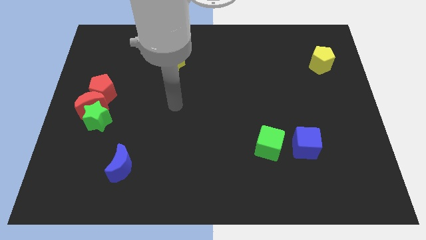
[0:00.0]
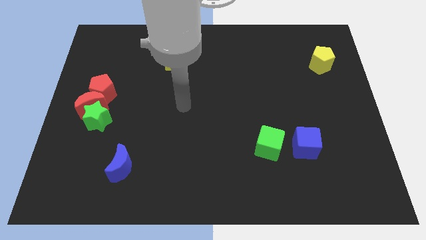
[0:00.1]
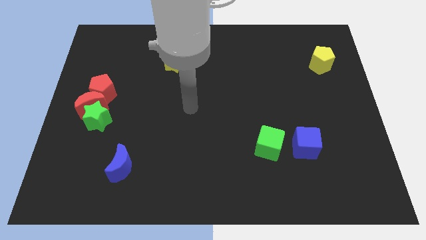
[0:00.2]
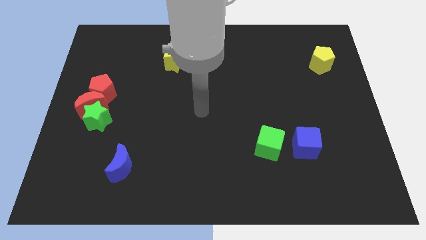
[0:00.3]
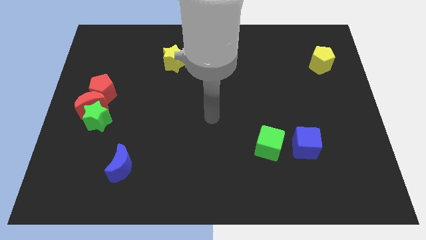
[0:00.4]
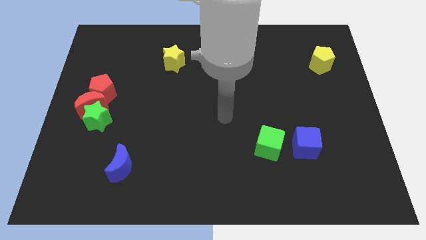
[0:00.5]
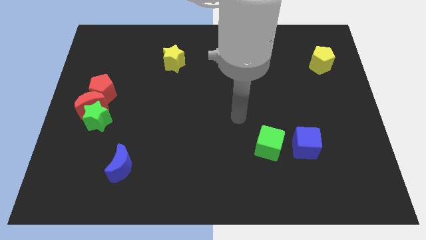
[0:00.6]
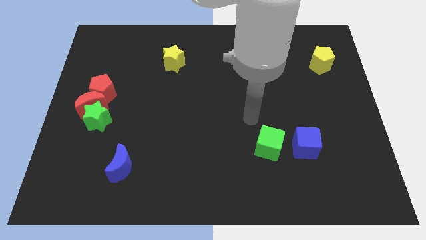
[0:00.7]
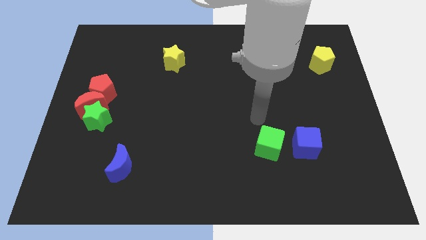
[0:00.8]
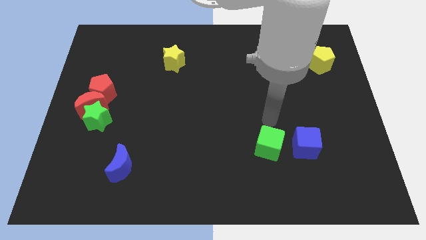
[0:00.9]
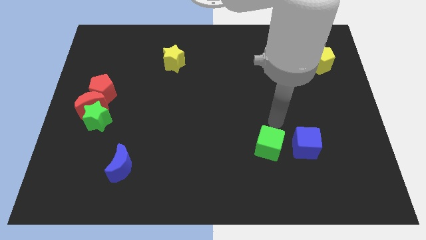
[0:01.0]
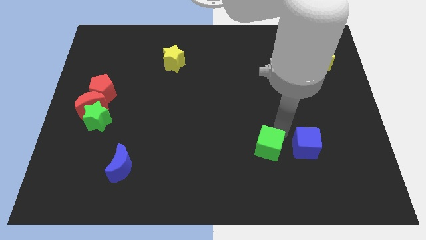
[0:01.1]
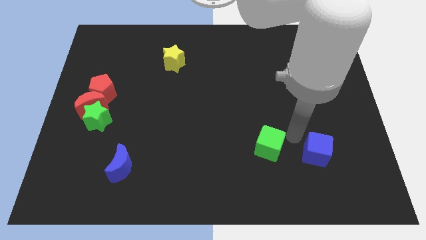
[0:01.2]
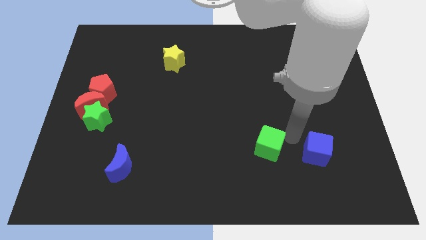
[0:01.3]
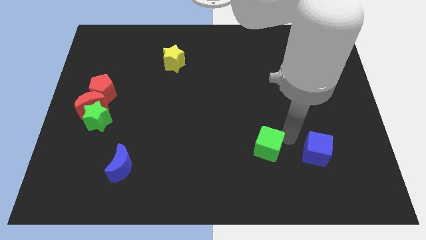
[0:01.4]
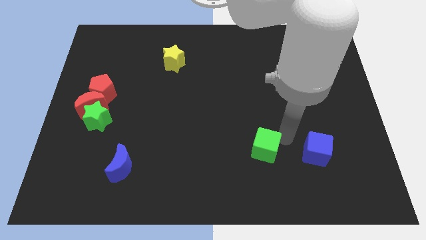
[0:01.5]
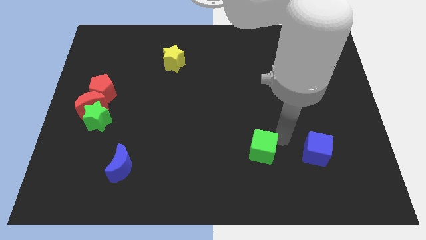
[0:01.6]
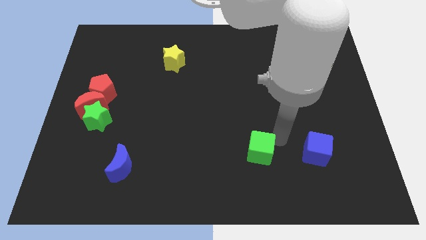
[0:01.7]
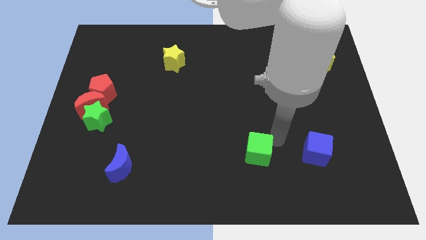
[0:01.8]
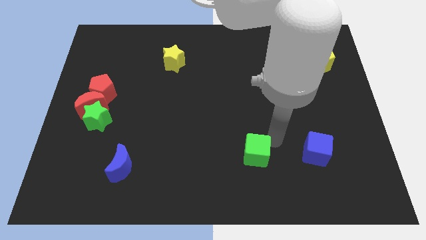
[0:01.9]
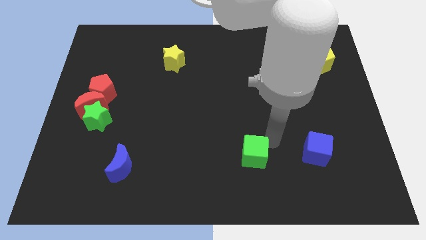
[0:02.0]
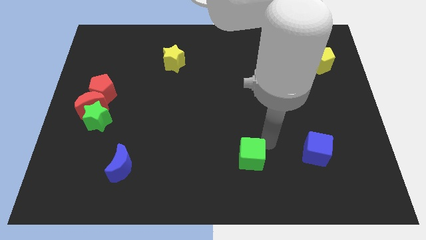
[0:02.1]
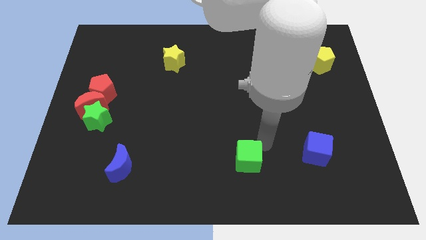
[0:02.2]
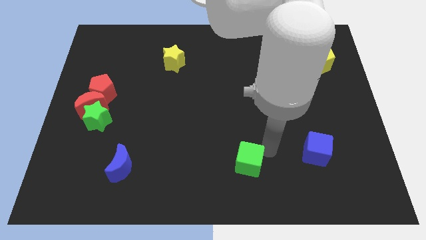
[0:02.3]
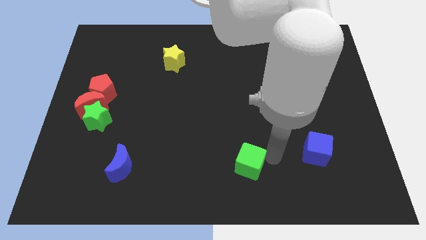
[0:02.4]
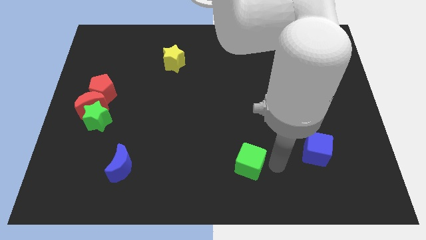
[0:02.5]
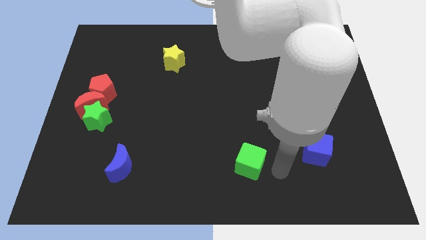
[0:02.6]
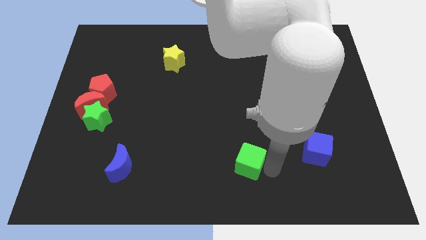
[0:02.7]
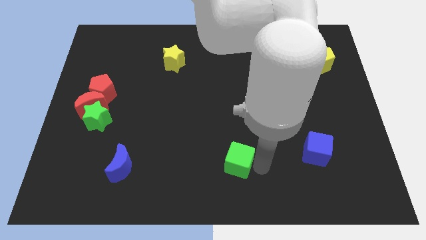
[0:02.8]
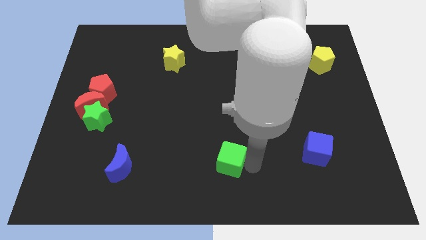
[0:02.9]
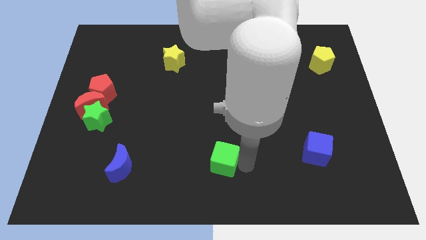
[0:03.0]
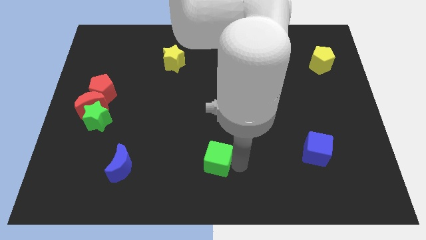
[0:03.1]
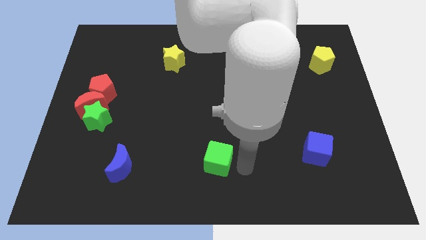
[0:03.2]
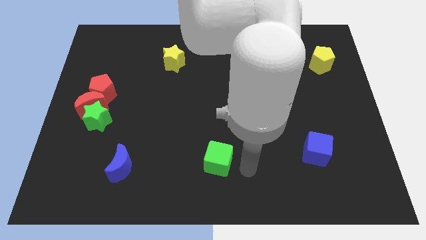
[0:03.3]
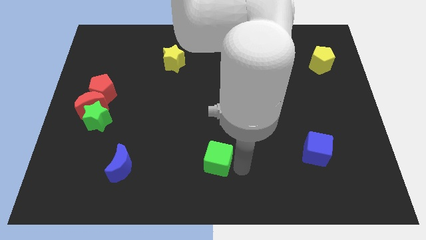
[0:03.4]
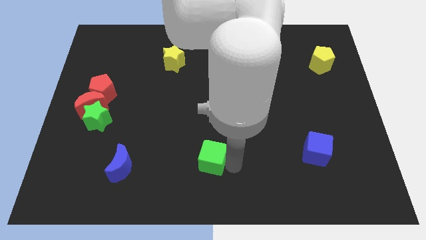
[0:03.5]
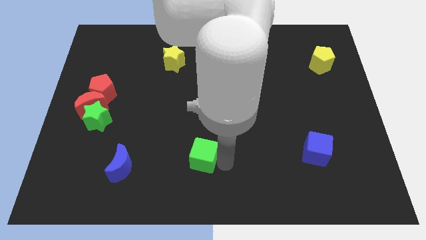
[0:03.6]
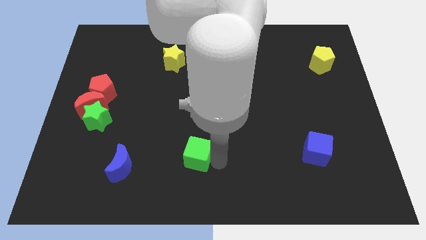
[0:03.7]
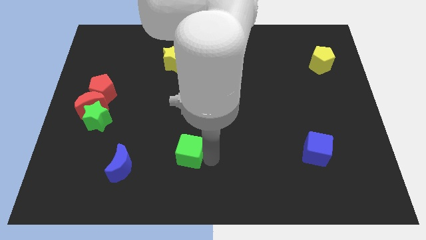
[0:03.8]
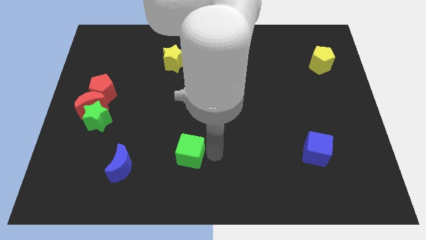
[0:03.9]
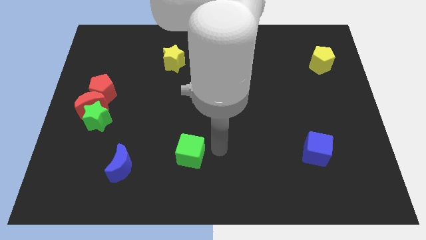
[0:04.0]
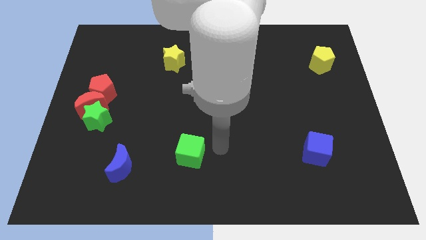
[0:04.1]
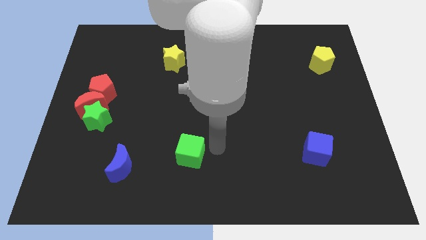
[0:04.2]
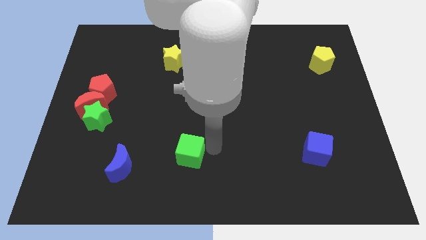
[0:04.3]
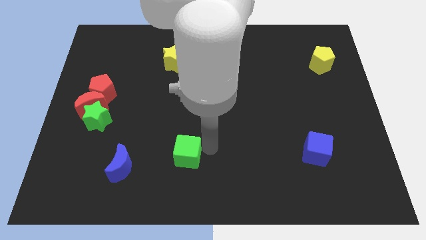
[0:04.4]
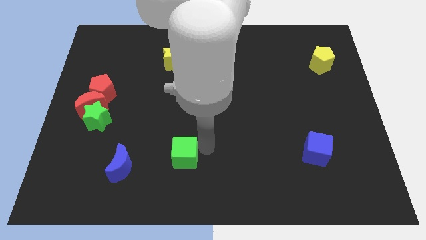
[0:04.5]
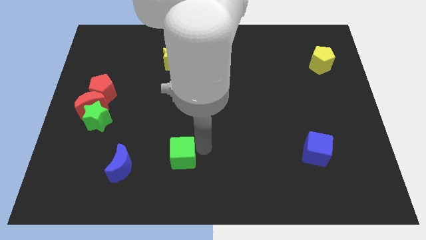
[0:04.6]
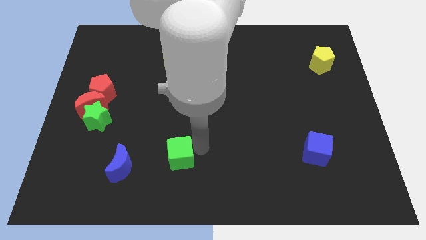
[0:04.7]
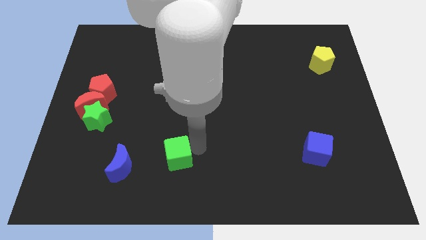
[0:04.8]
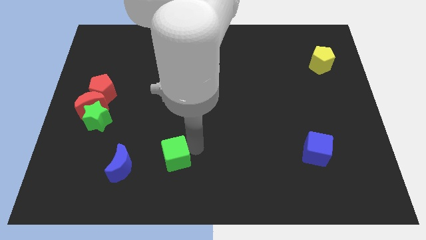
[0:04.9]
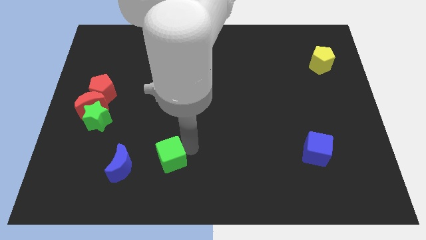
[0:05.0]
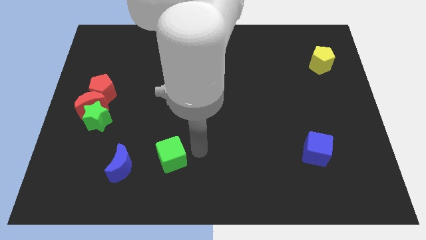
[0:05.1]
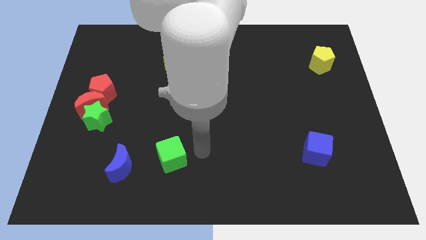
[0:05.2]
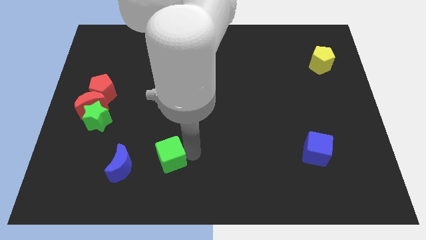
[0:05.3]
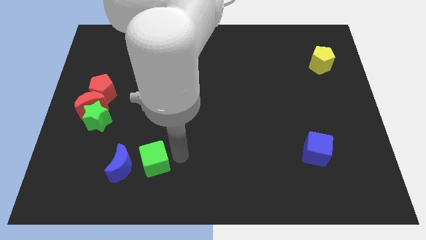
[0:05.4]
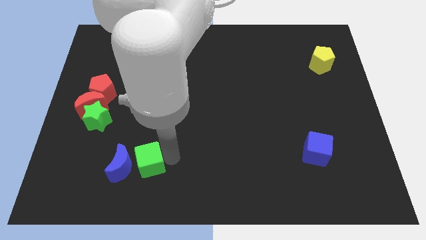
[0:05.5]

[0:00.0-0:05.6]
push the green cube towards the blue moon

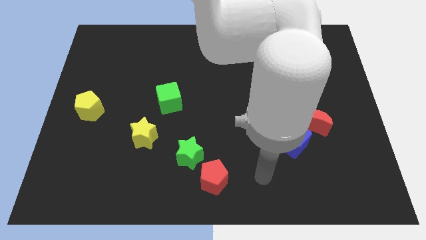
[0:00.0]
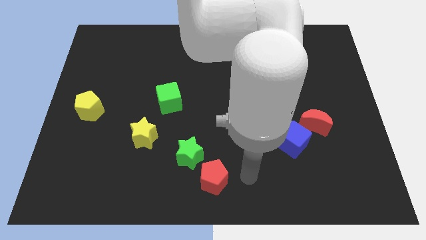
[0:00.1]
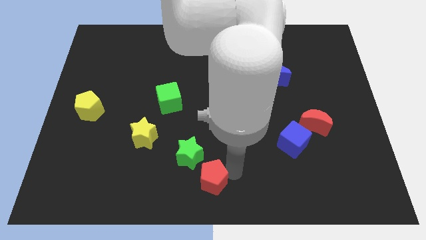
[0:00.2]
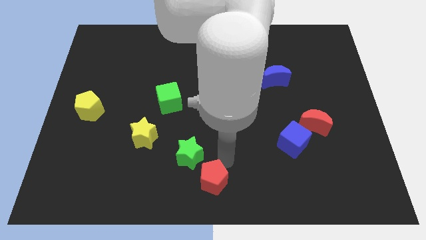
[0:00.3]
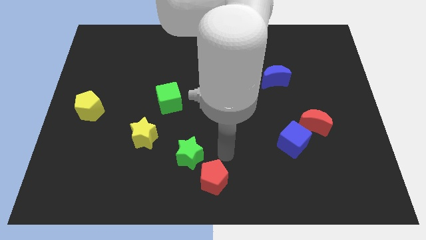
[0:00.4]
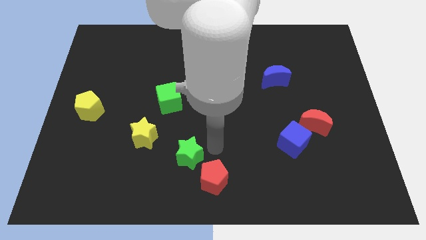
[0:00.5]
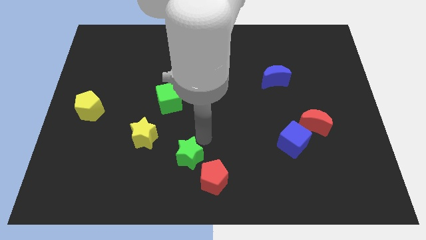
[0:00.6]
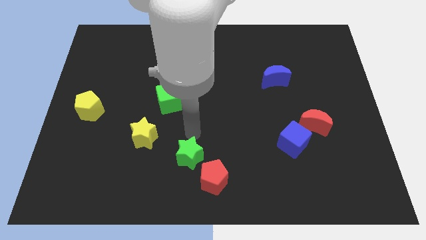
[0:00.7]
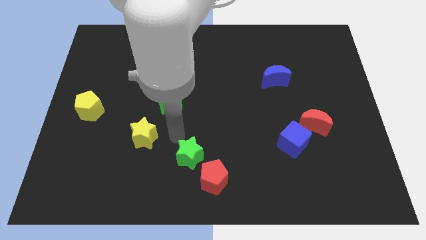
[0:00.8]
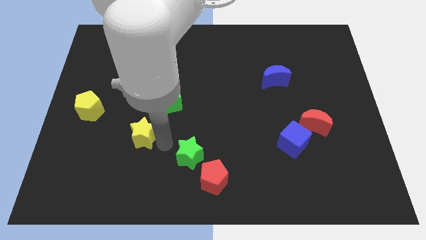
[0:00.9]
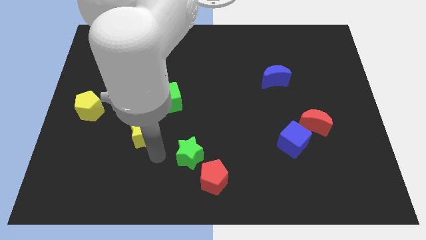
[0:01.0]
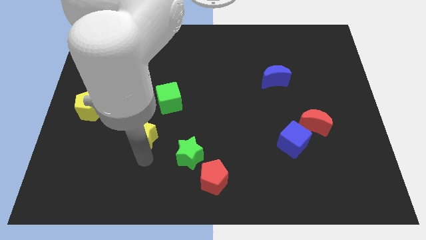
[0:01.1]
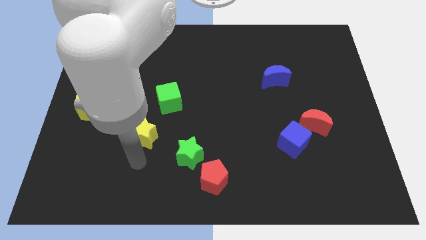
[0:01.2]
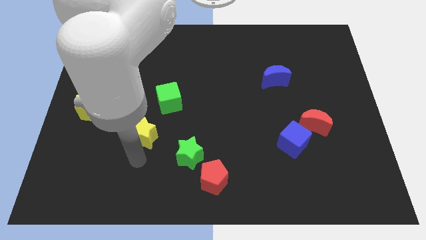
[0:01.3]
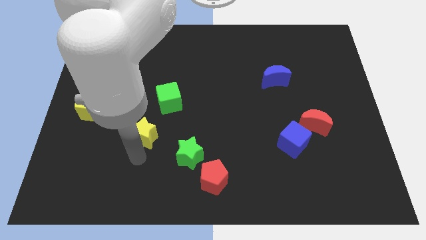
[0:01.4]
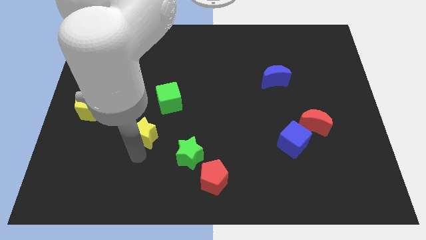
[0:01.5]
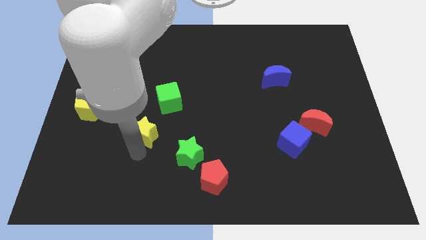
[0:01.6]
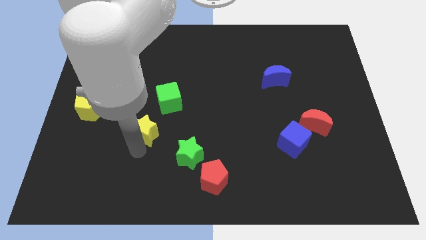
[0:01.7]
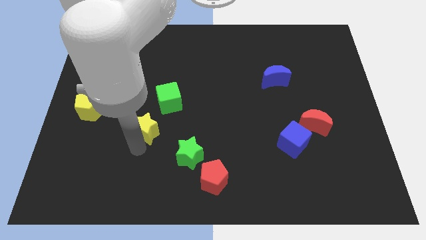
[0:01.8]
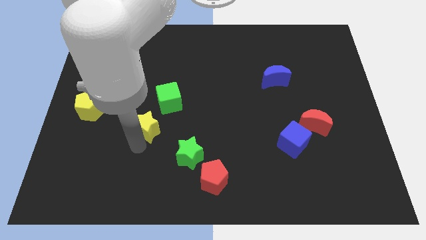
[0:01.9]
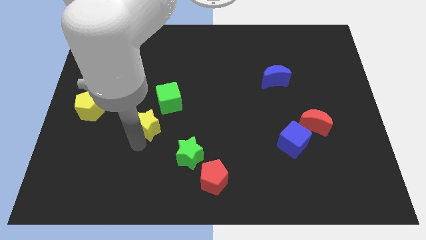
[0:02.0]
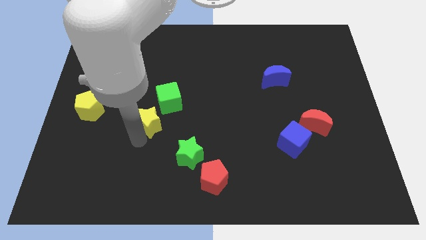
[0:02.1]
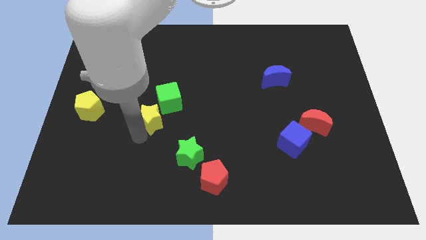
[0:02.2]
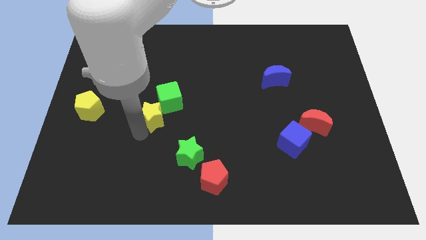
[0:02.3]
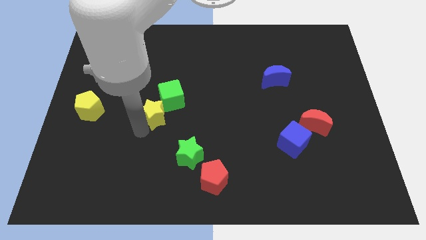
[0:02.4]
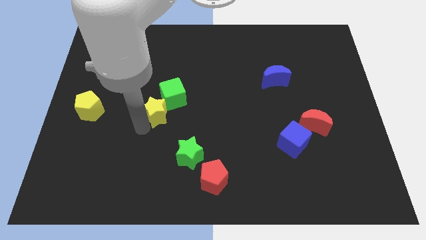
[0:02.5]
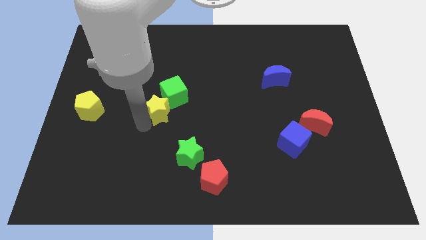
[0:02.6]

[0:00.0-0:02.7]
move the yellow star next to the green cube
